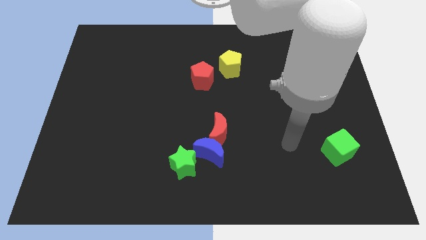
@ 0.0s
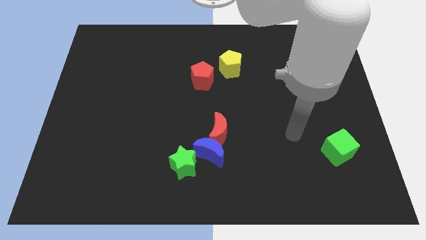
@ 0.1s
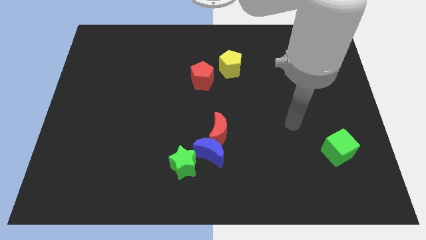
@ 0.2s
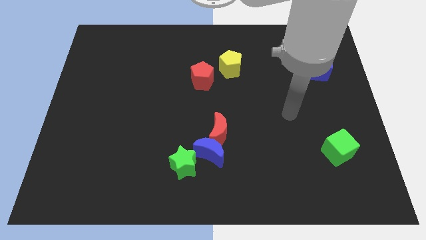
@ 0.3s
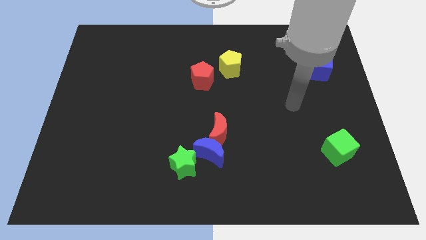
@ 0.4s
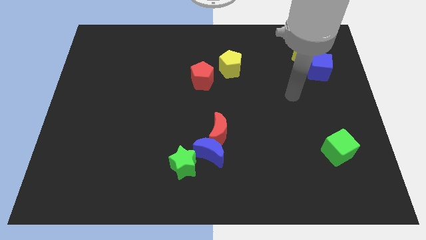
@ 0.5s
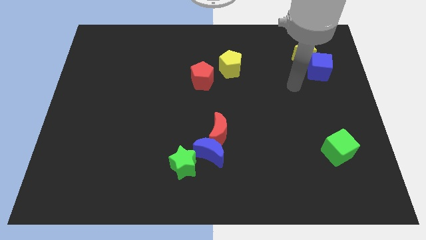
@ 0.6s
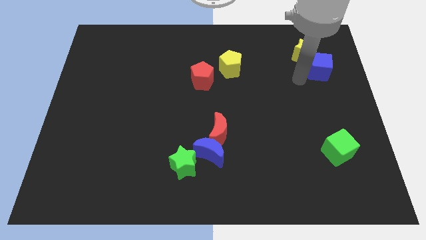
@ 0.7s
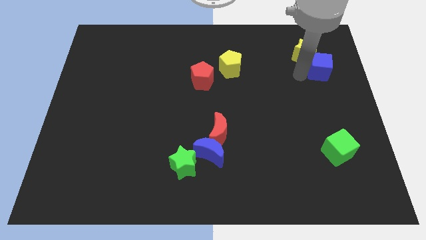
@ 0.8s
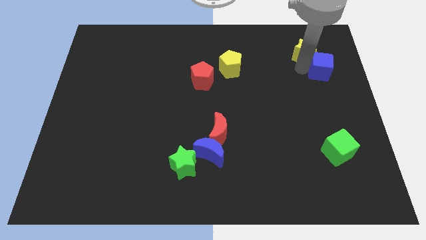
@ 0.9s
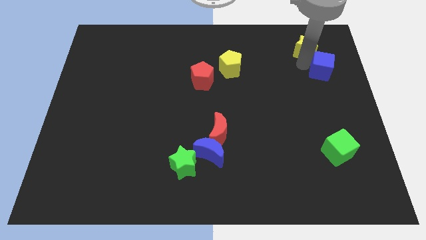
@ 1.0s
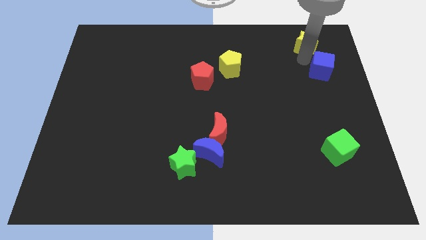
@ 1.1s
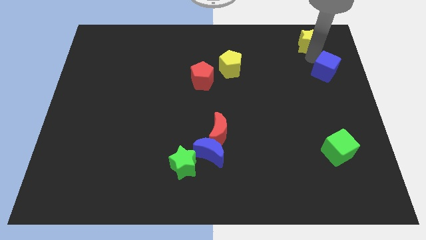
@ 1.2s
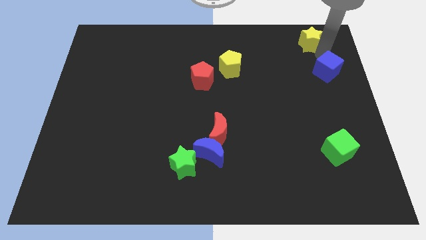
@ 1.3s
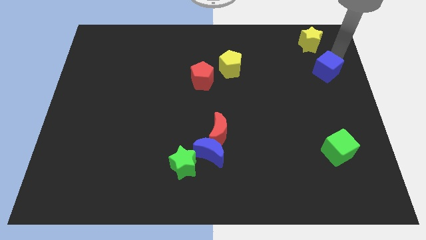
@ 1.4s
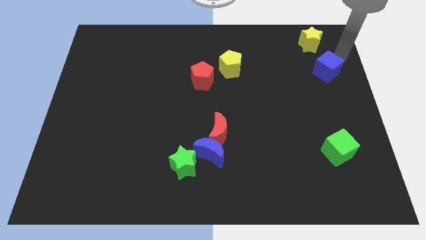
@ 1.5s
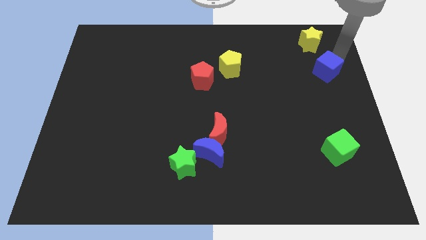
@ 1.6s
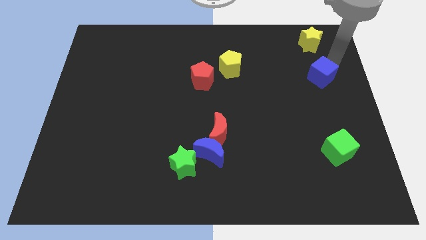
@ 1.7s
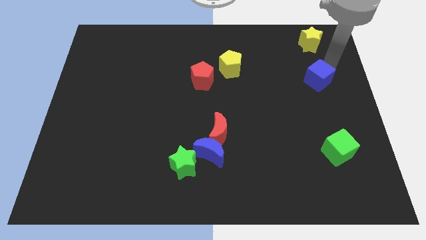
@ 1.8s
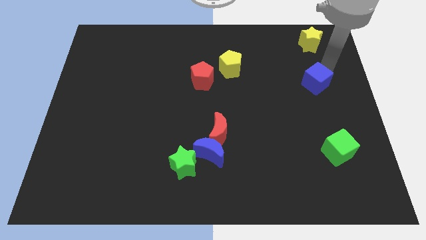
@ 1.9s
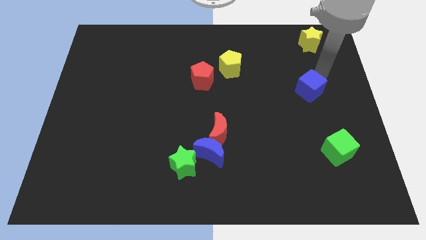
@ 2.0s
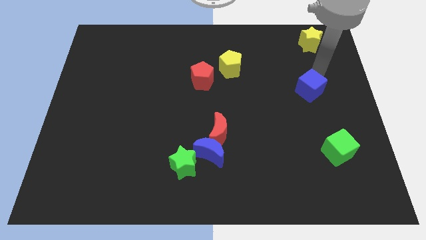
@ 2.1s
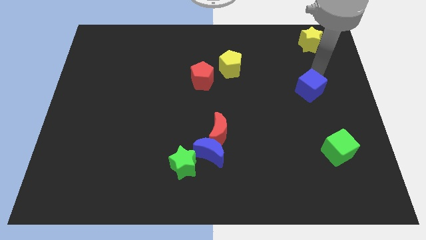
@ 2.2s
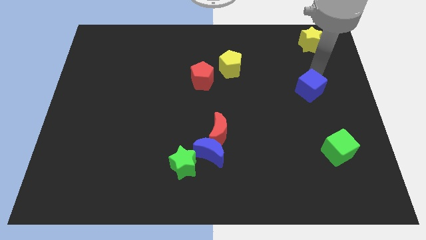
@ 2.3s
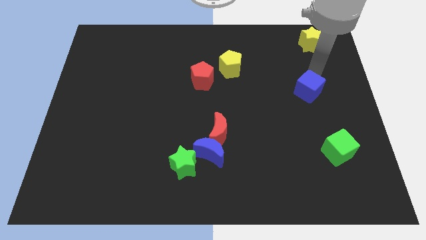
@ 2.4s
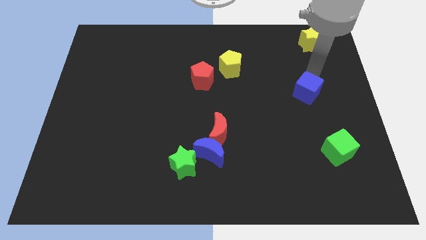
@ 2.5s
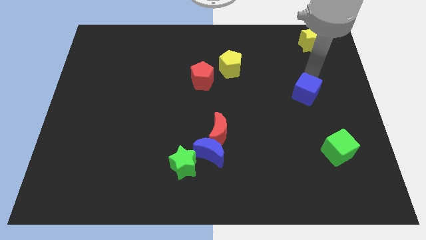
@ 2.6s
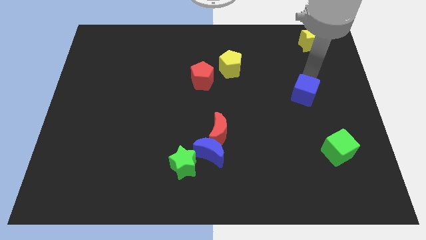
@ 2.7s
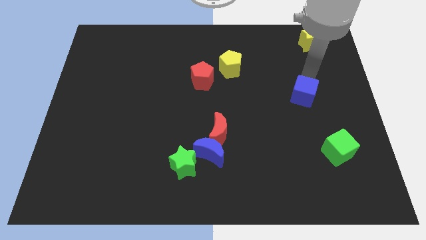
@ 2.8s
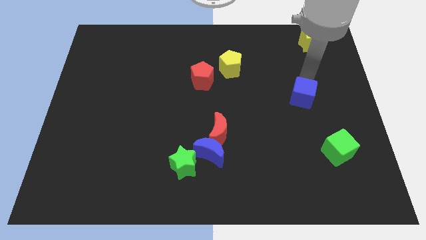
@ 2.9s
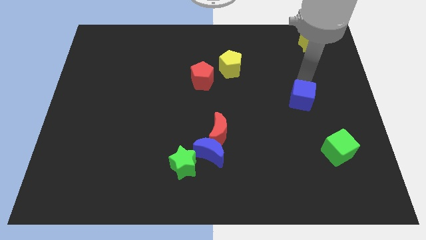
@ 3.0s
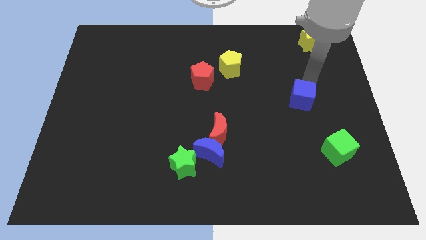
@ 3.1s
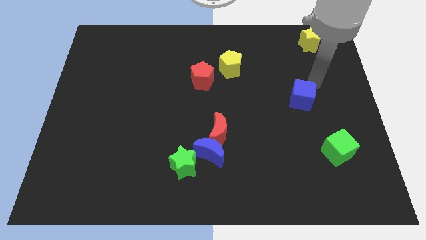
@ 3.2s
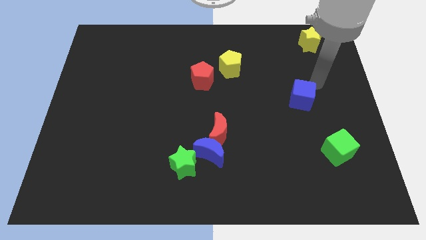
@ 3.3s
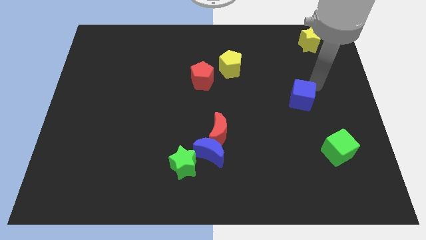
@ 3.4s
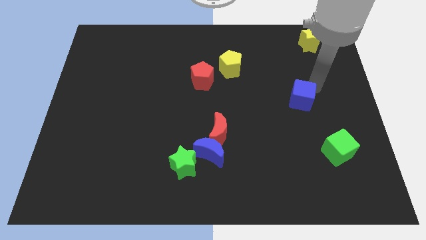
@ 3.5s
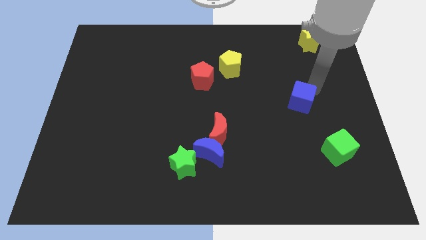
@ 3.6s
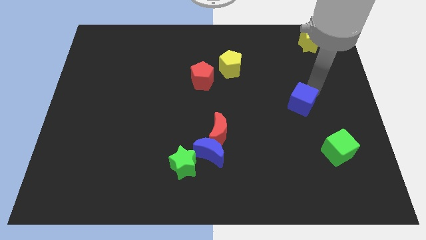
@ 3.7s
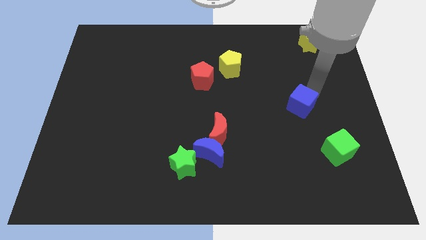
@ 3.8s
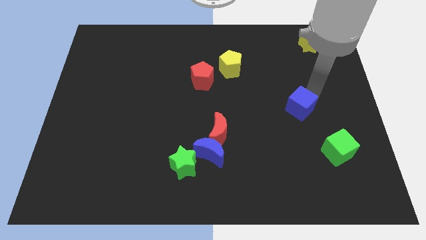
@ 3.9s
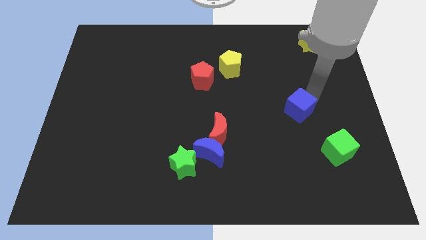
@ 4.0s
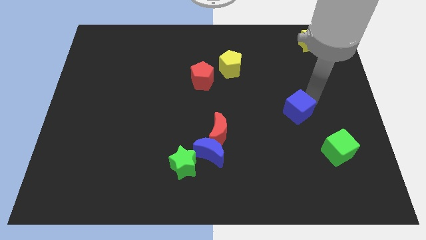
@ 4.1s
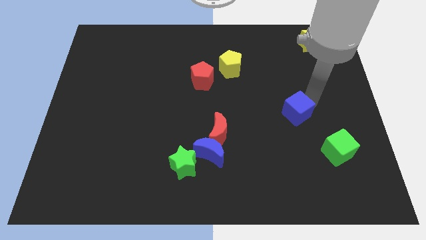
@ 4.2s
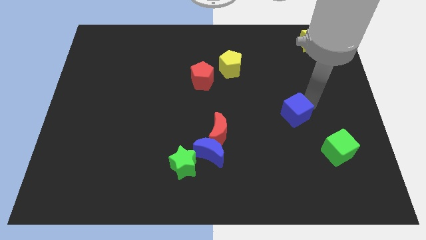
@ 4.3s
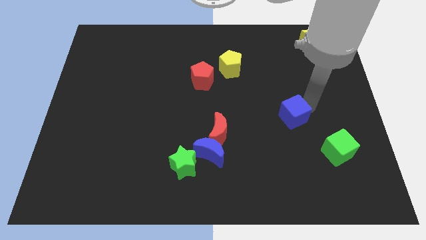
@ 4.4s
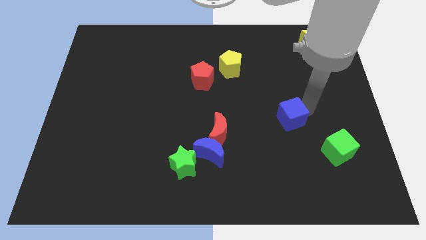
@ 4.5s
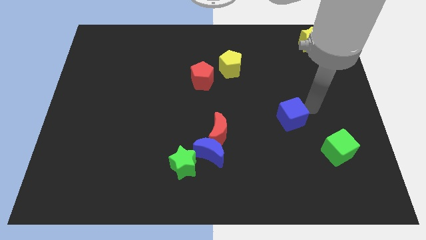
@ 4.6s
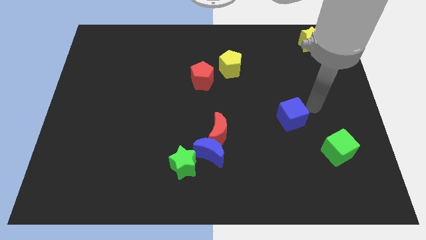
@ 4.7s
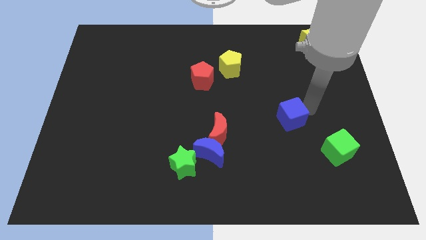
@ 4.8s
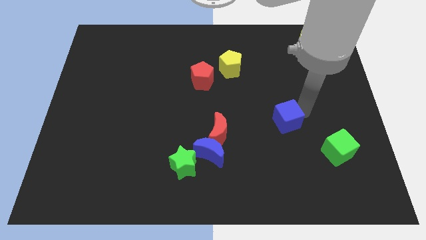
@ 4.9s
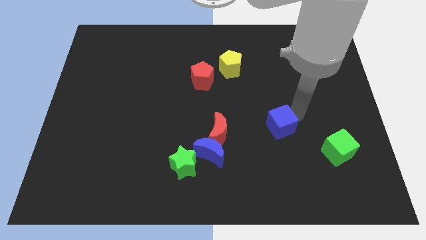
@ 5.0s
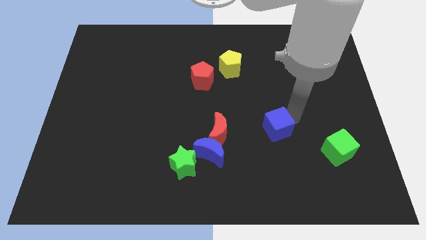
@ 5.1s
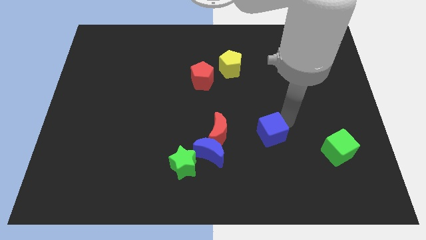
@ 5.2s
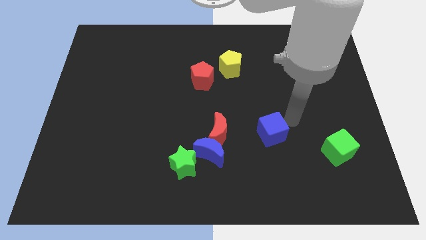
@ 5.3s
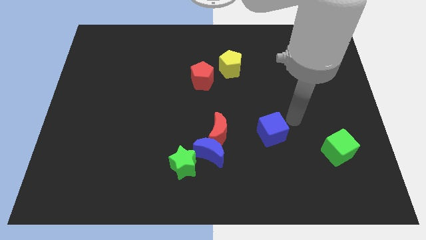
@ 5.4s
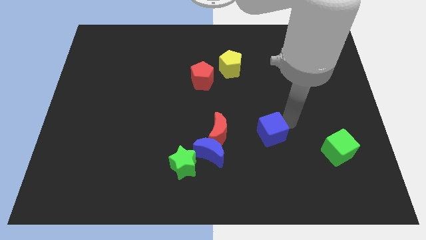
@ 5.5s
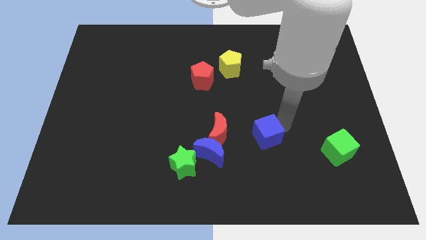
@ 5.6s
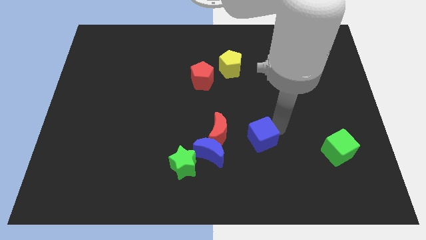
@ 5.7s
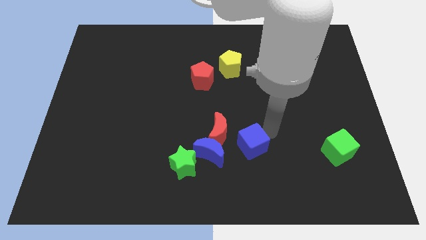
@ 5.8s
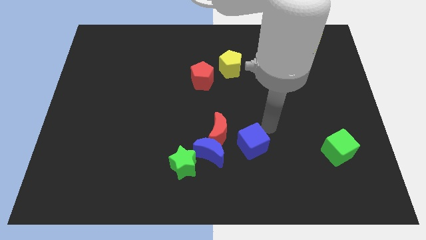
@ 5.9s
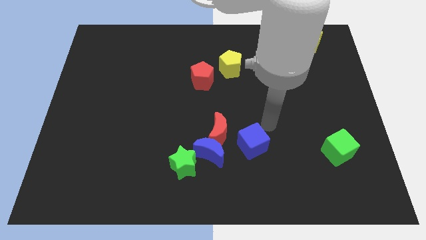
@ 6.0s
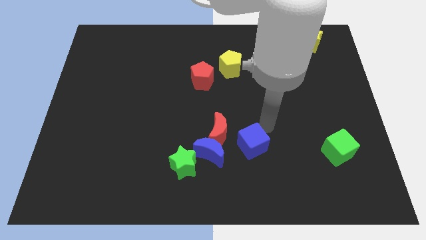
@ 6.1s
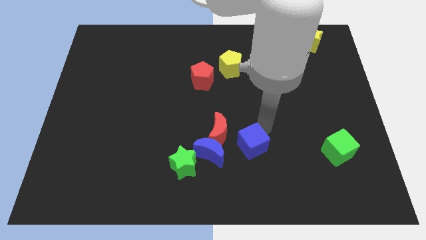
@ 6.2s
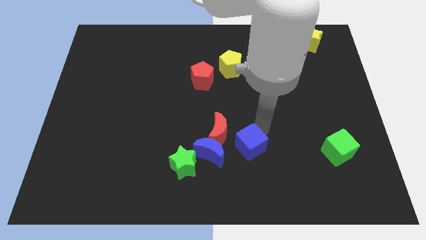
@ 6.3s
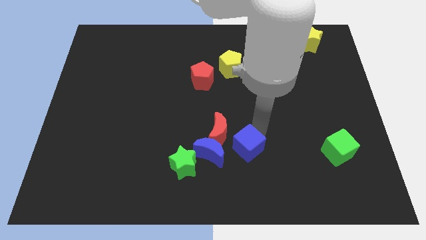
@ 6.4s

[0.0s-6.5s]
move the blue cube to the right of the green star

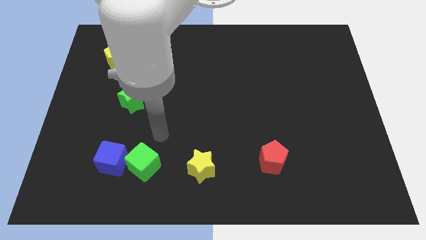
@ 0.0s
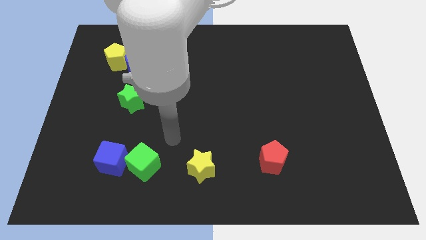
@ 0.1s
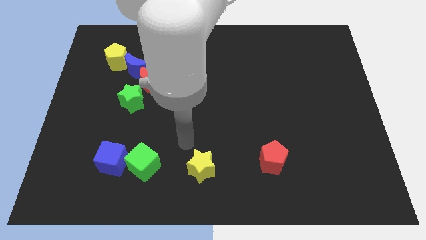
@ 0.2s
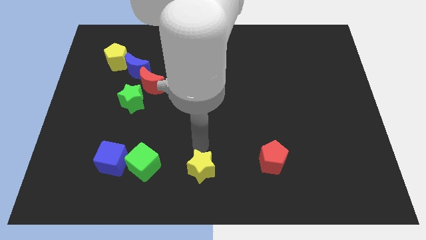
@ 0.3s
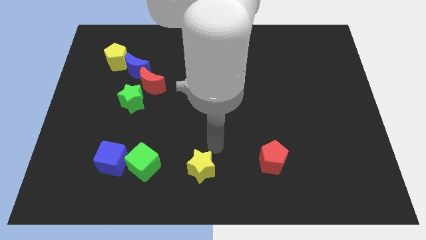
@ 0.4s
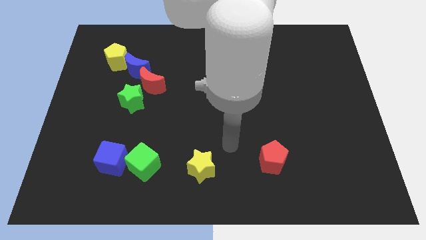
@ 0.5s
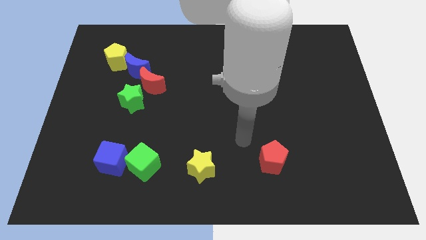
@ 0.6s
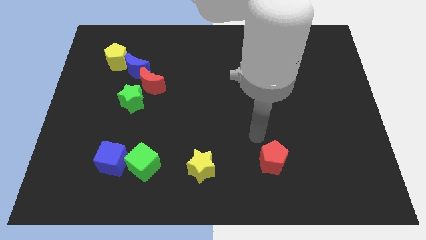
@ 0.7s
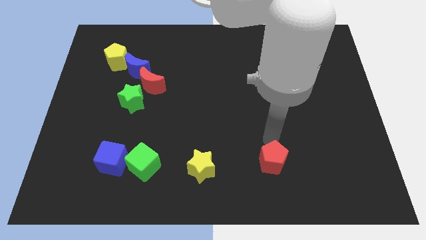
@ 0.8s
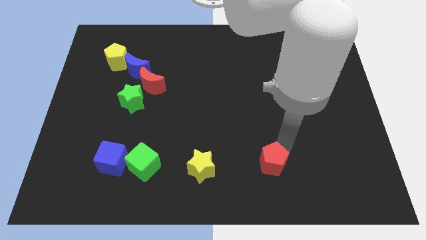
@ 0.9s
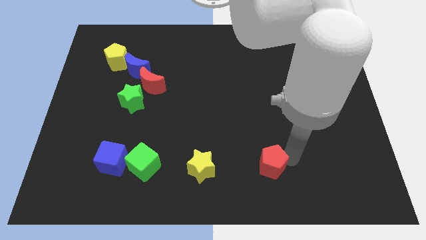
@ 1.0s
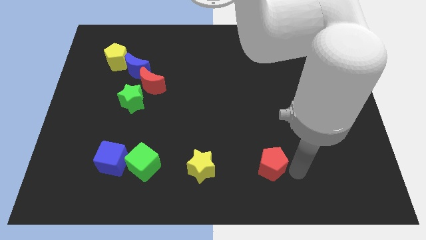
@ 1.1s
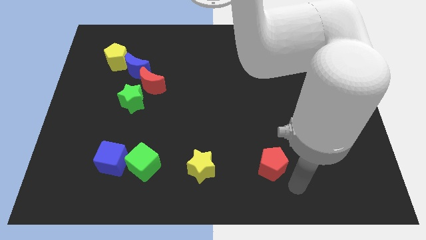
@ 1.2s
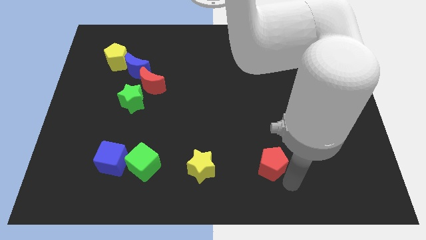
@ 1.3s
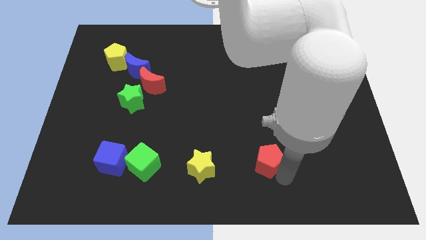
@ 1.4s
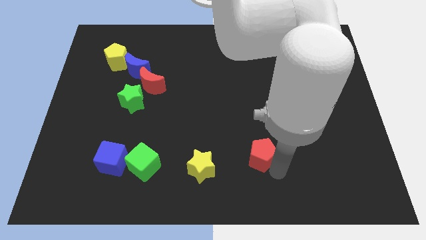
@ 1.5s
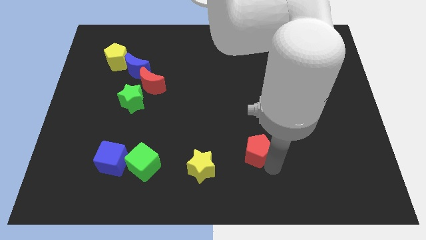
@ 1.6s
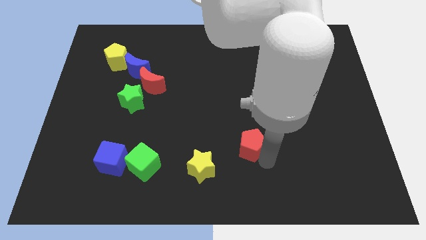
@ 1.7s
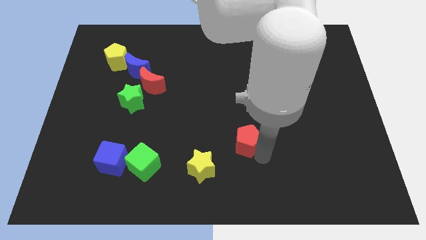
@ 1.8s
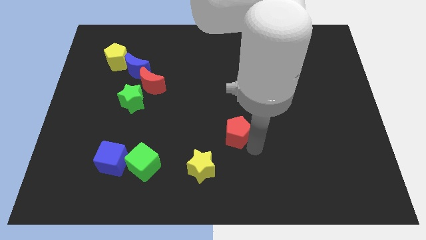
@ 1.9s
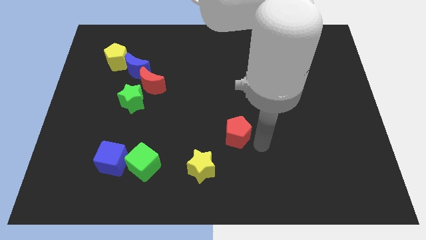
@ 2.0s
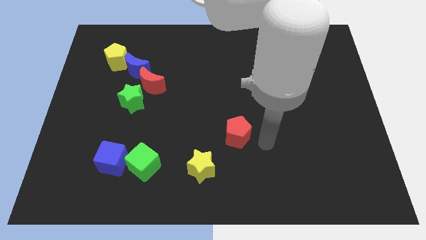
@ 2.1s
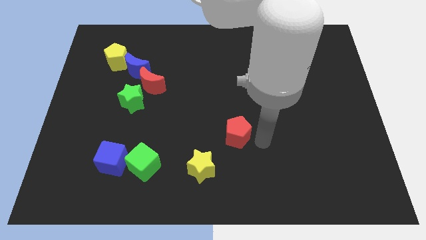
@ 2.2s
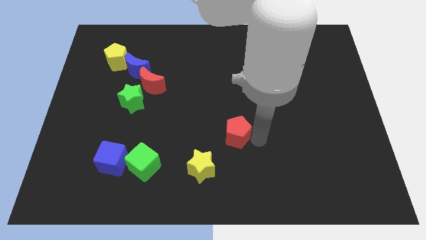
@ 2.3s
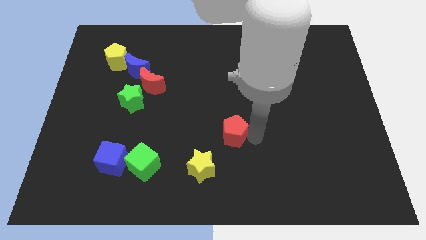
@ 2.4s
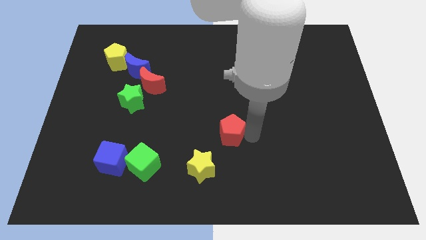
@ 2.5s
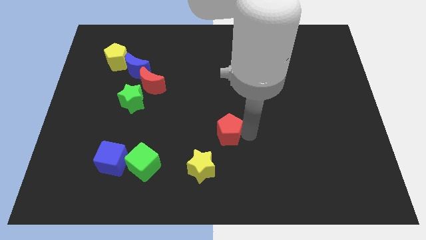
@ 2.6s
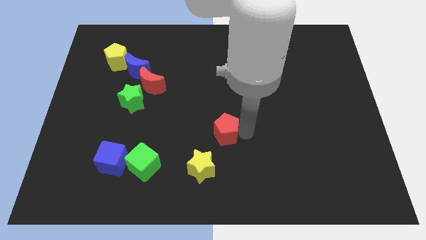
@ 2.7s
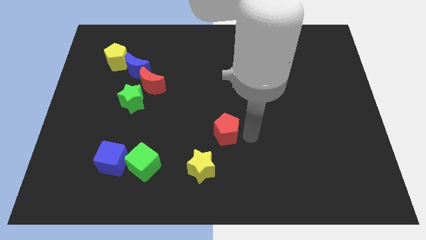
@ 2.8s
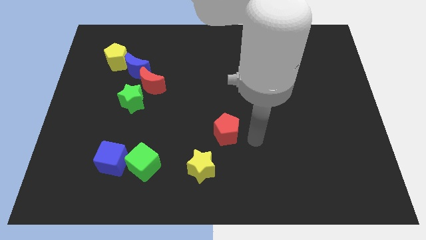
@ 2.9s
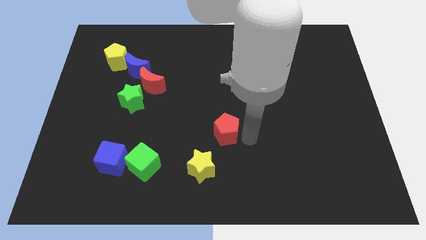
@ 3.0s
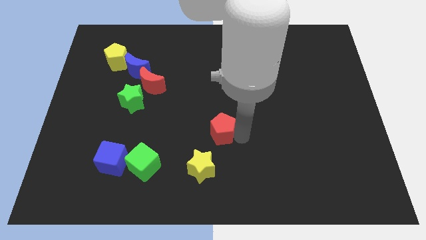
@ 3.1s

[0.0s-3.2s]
slide the red pentagon above the yellow star
